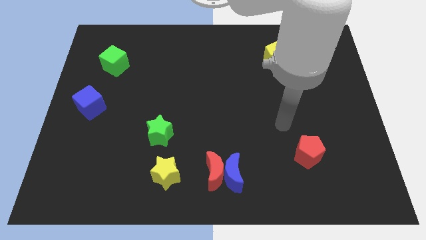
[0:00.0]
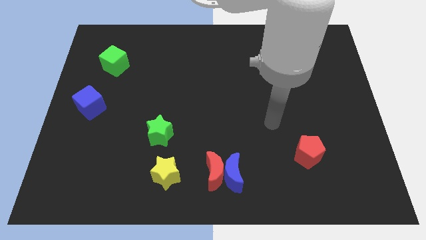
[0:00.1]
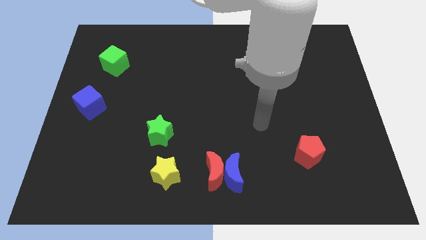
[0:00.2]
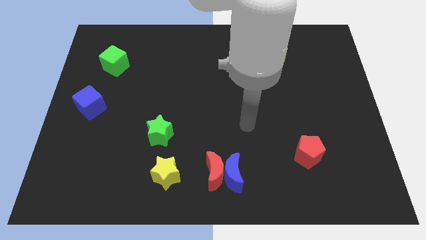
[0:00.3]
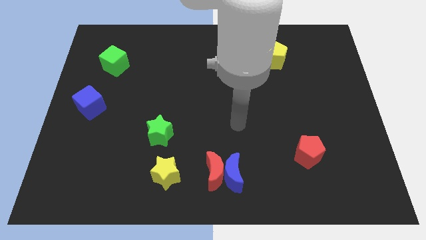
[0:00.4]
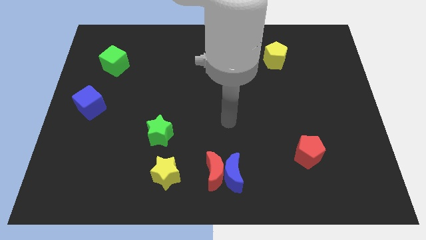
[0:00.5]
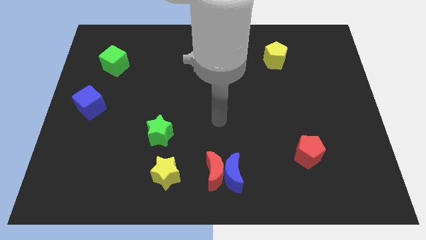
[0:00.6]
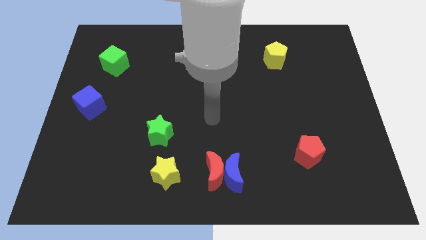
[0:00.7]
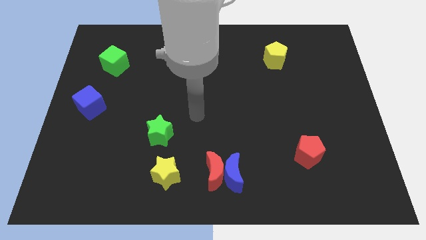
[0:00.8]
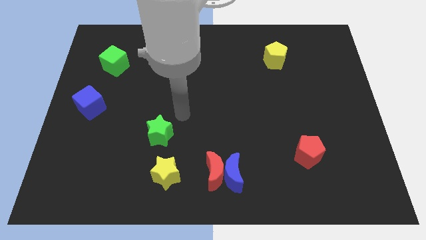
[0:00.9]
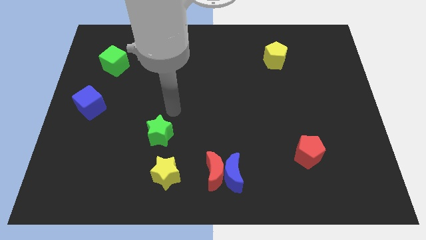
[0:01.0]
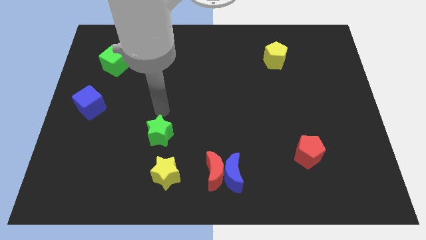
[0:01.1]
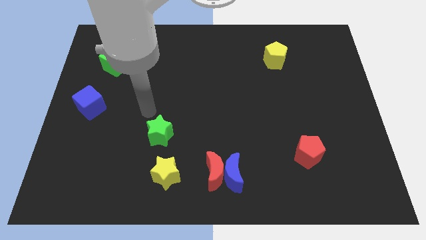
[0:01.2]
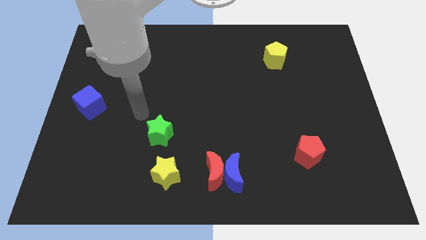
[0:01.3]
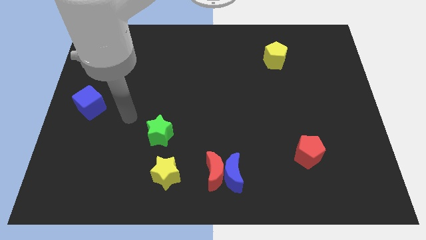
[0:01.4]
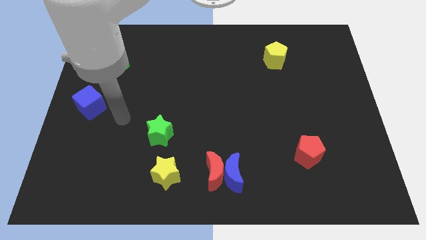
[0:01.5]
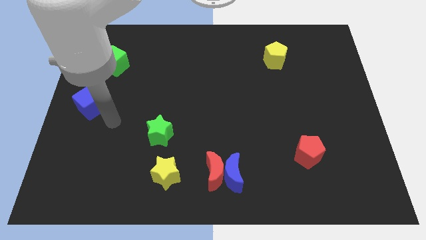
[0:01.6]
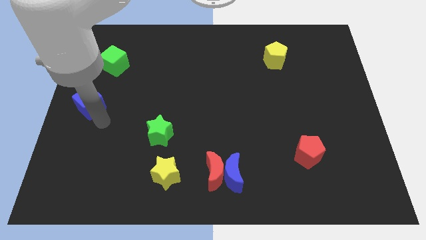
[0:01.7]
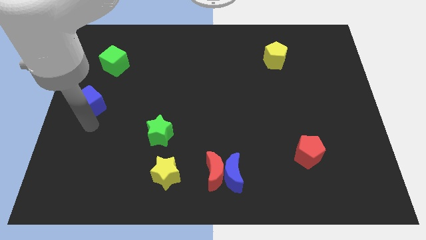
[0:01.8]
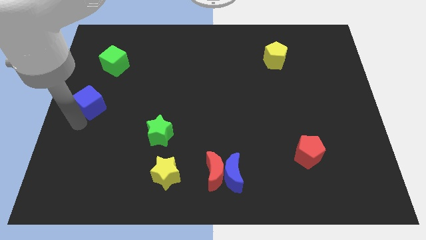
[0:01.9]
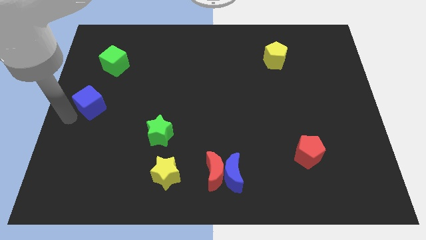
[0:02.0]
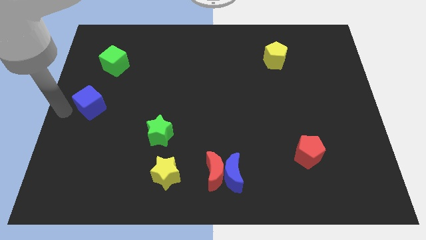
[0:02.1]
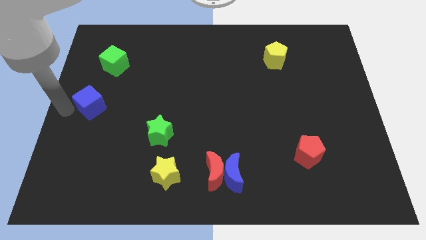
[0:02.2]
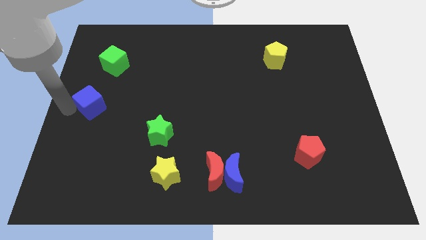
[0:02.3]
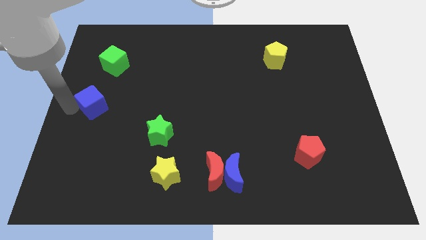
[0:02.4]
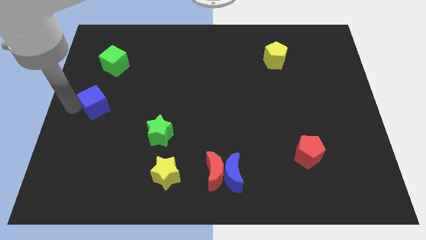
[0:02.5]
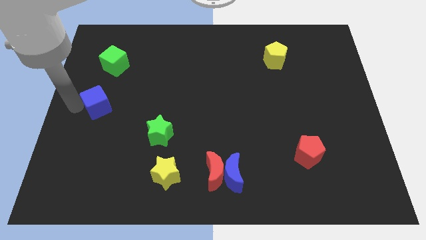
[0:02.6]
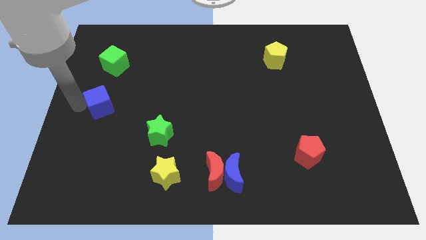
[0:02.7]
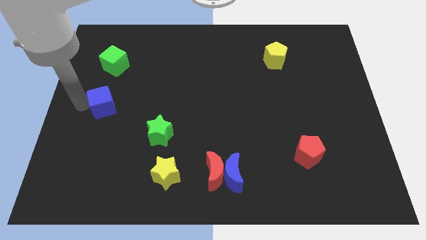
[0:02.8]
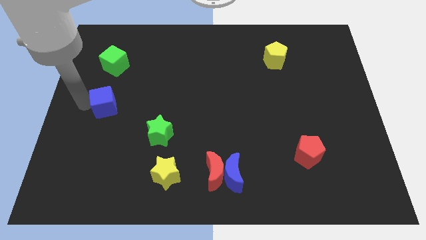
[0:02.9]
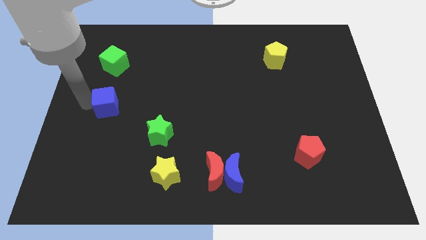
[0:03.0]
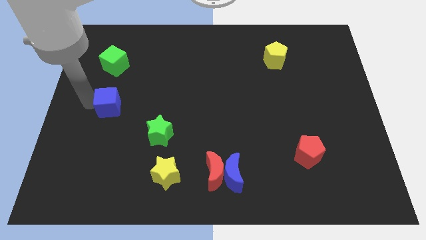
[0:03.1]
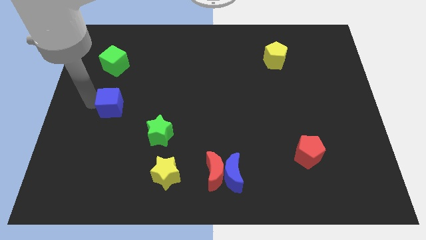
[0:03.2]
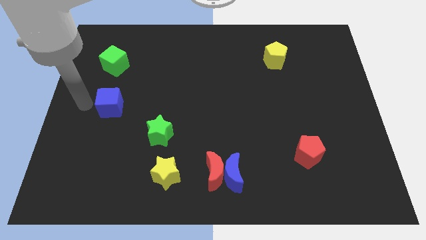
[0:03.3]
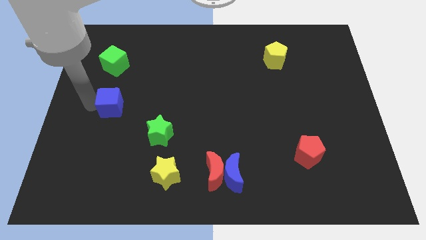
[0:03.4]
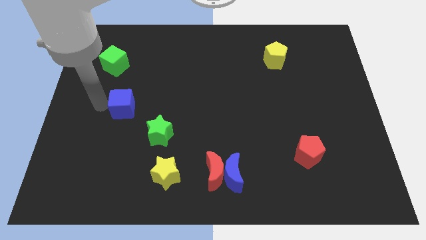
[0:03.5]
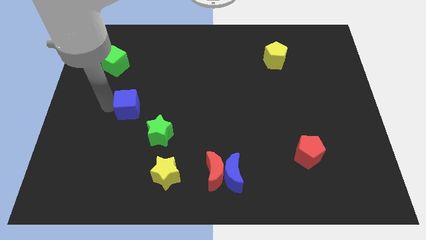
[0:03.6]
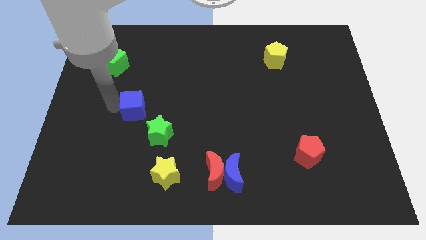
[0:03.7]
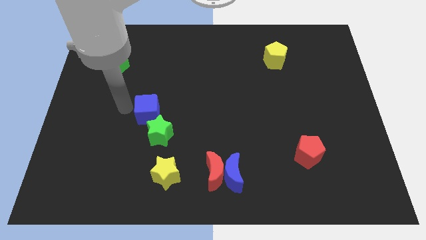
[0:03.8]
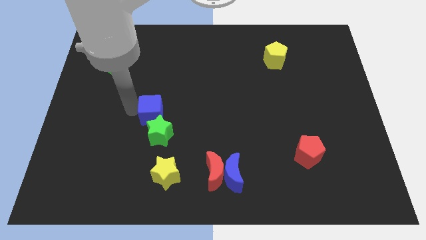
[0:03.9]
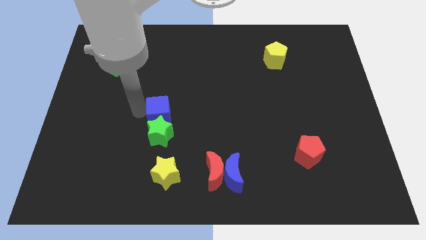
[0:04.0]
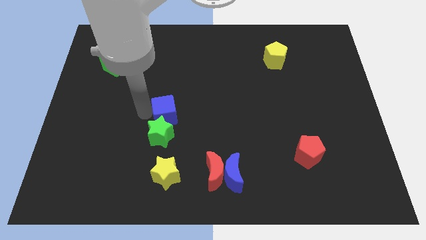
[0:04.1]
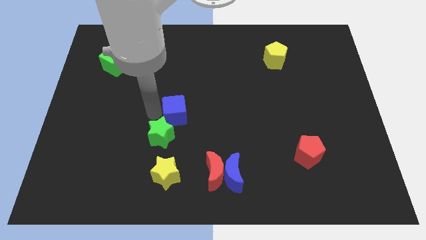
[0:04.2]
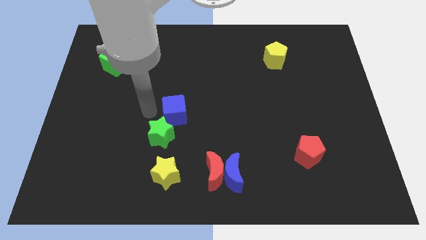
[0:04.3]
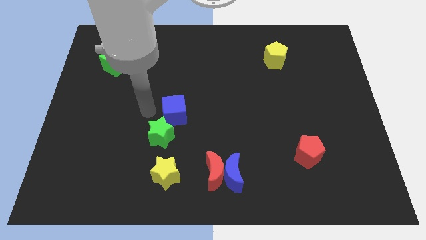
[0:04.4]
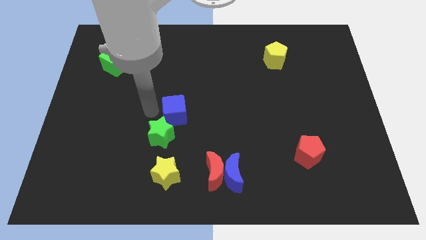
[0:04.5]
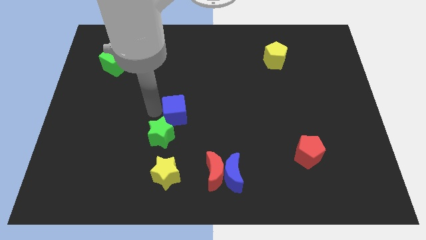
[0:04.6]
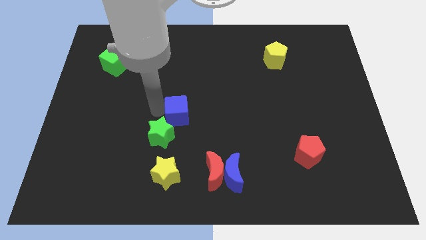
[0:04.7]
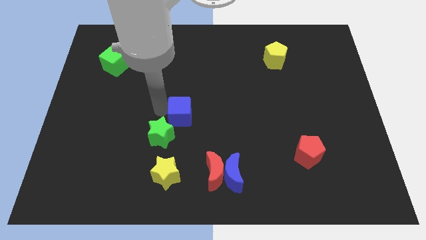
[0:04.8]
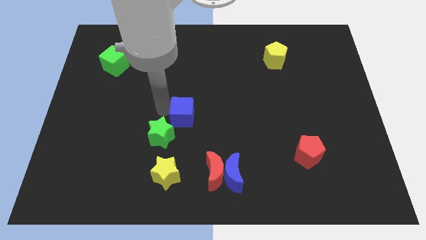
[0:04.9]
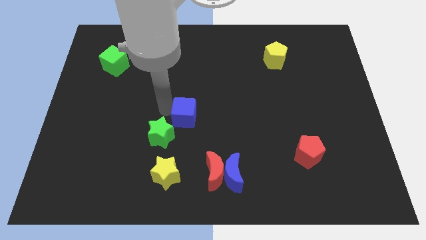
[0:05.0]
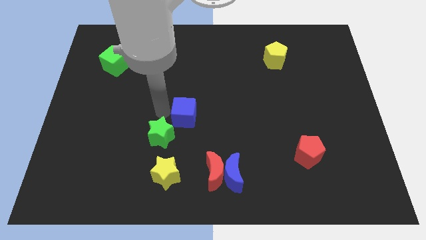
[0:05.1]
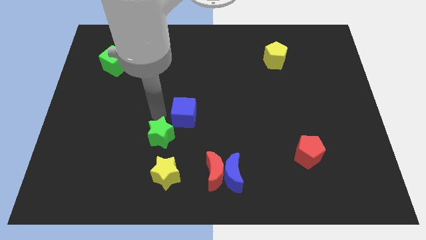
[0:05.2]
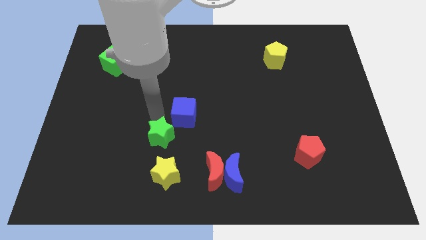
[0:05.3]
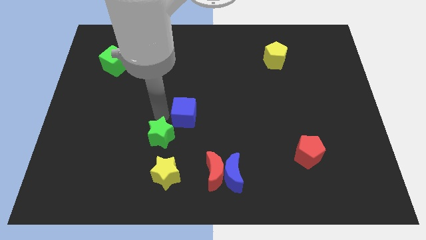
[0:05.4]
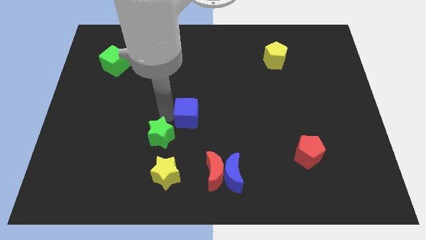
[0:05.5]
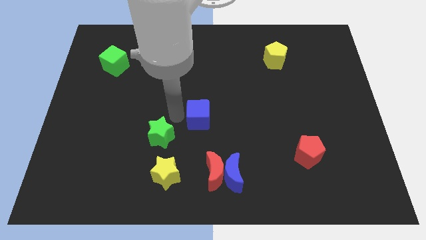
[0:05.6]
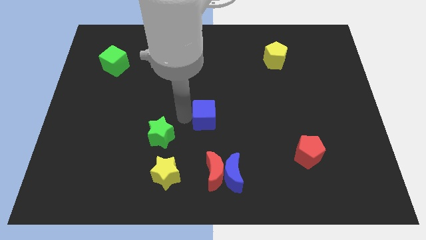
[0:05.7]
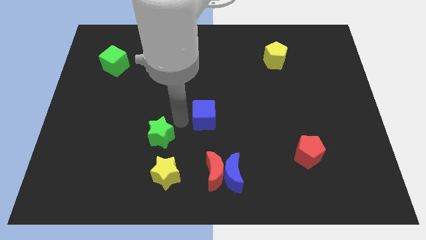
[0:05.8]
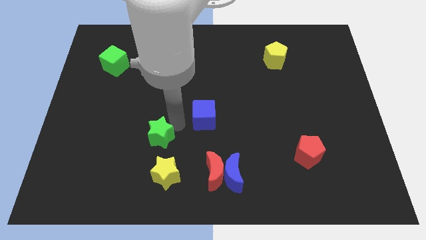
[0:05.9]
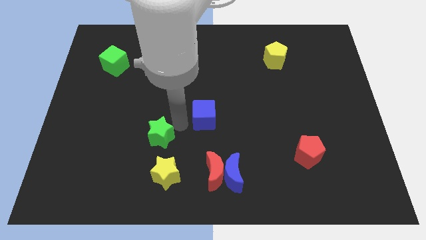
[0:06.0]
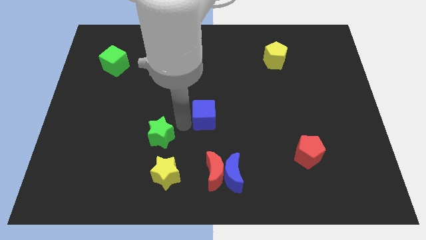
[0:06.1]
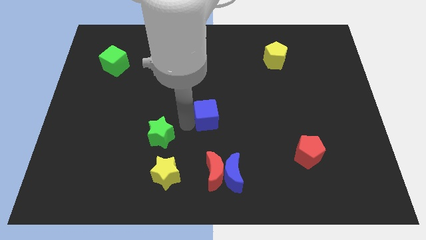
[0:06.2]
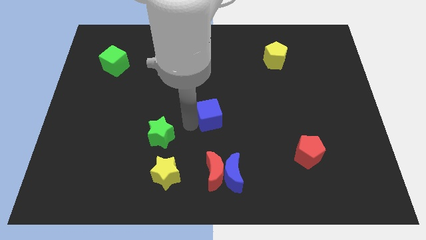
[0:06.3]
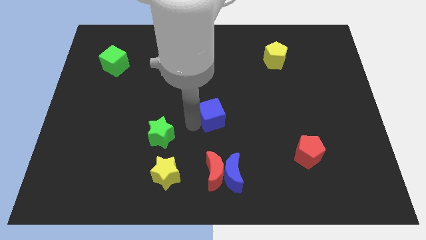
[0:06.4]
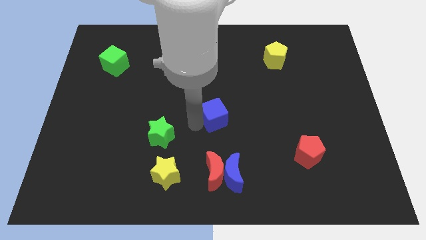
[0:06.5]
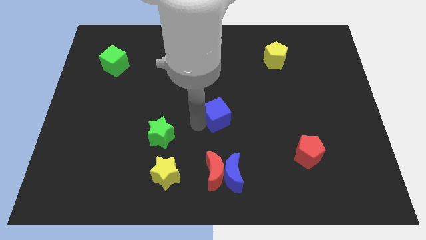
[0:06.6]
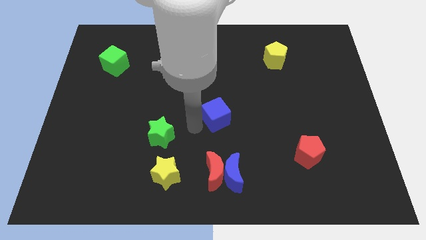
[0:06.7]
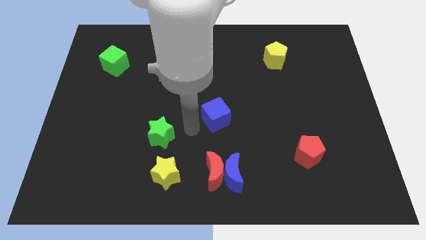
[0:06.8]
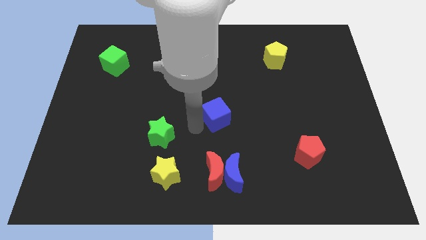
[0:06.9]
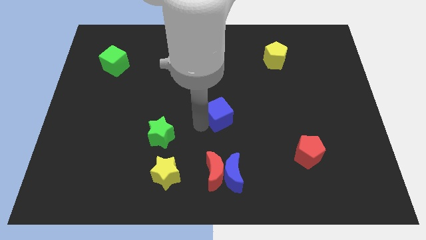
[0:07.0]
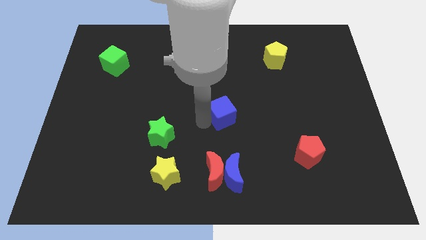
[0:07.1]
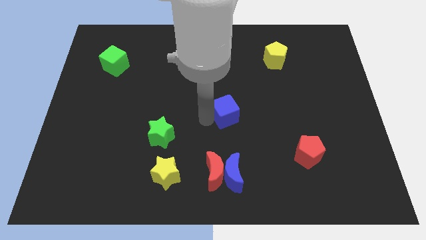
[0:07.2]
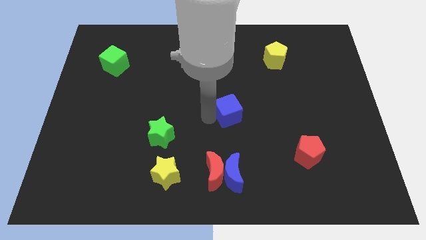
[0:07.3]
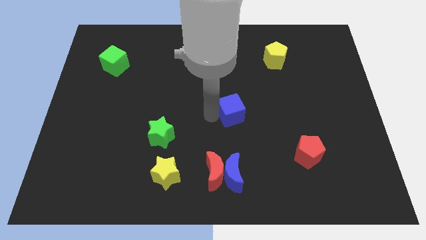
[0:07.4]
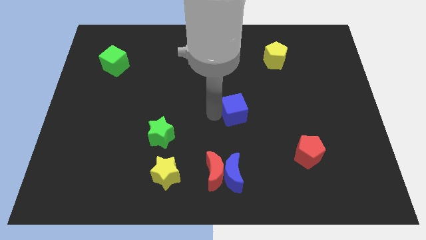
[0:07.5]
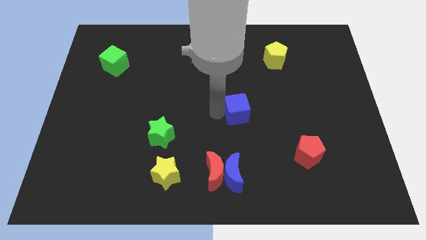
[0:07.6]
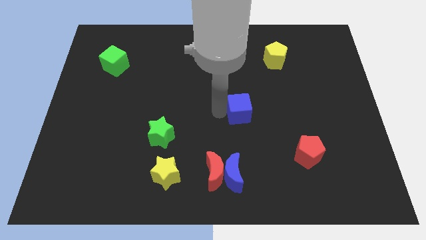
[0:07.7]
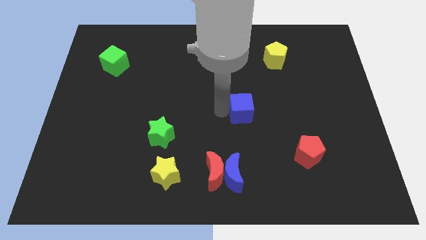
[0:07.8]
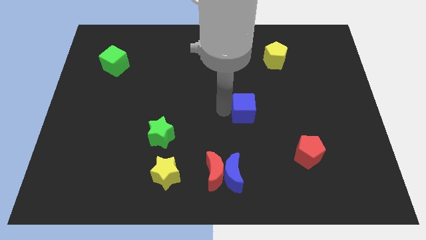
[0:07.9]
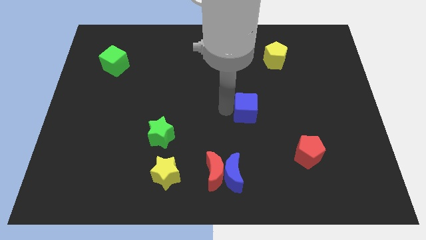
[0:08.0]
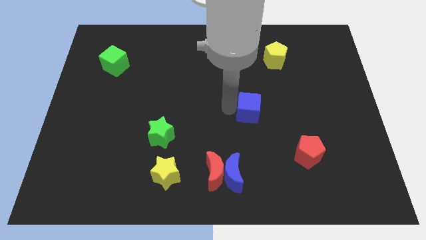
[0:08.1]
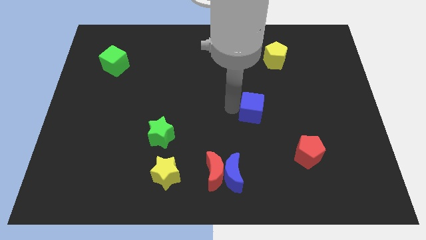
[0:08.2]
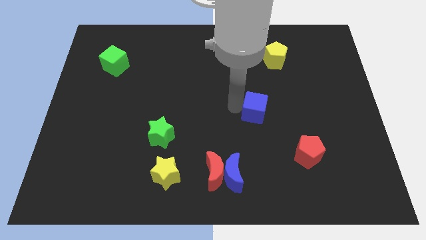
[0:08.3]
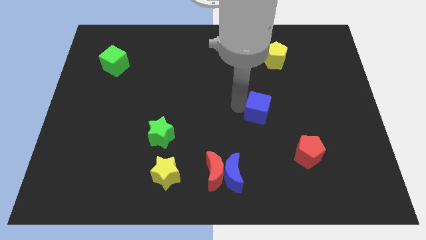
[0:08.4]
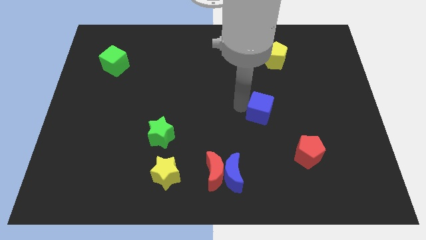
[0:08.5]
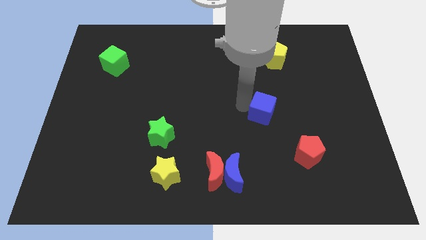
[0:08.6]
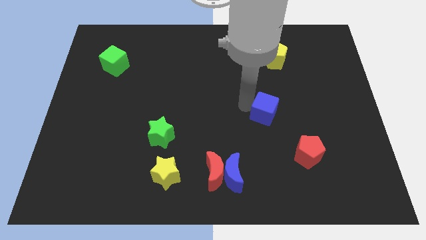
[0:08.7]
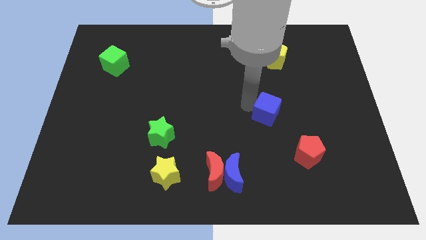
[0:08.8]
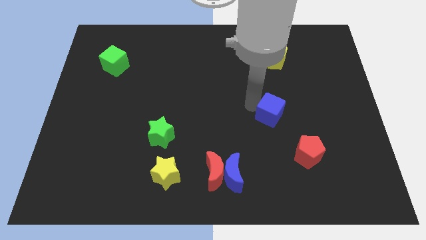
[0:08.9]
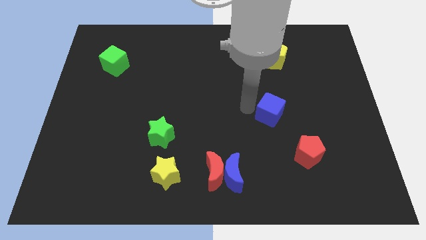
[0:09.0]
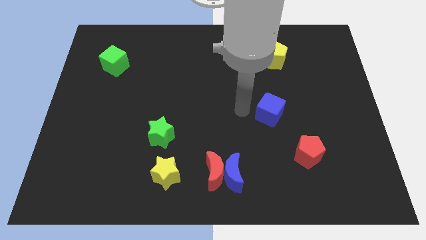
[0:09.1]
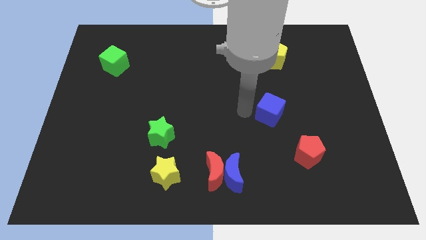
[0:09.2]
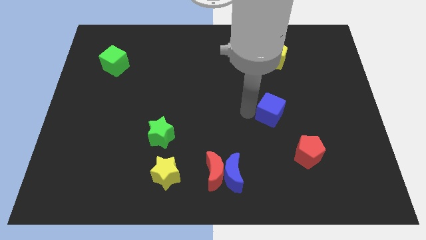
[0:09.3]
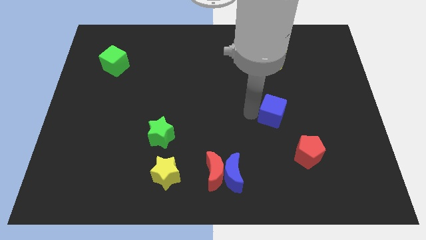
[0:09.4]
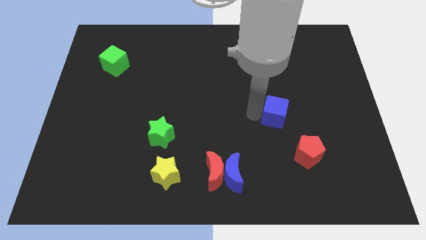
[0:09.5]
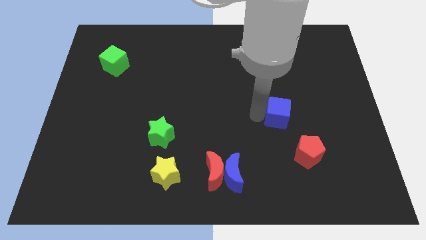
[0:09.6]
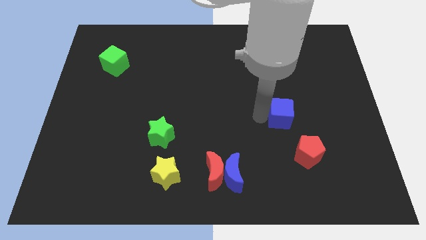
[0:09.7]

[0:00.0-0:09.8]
put the blue cube above the red pentagon
